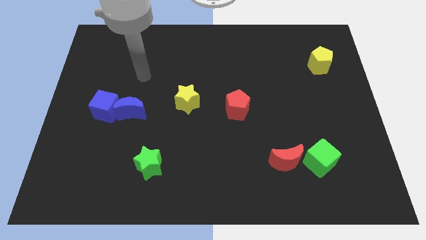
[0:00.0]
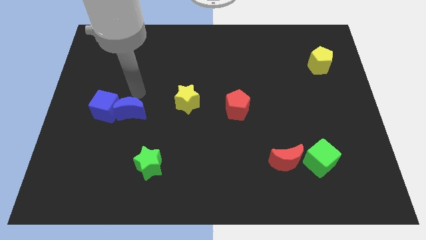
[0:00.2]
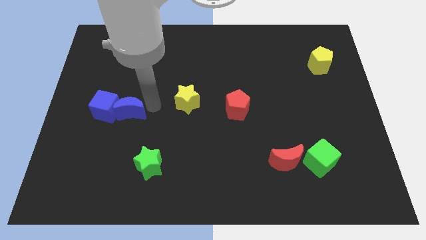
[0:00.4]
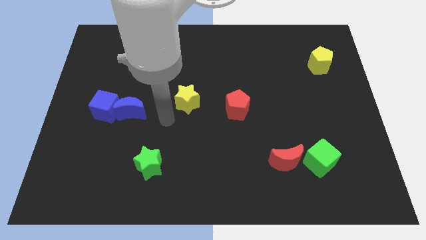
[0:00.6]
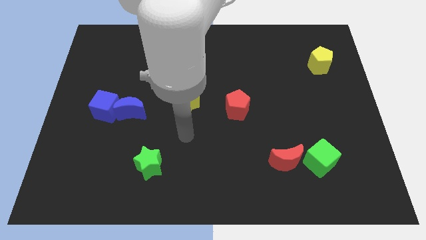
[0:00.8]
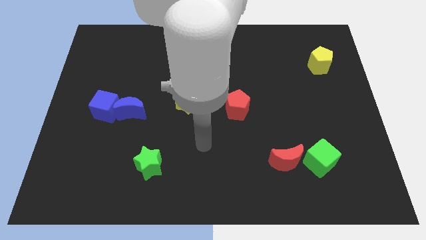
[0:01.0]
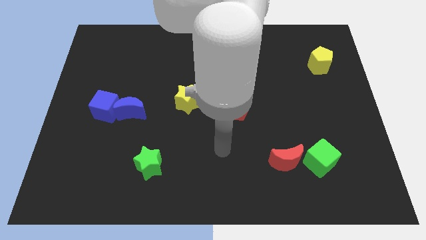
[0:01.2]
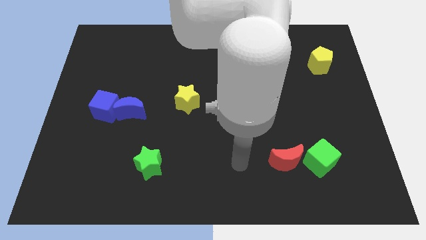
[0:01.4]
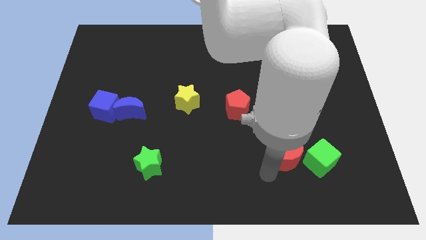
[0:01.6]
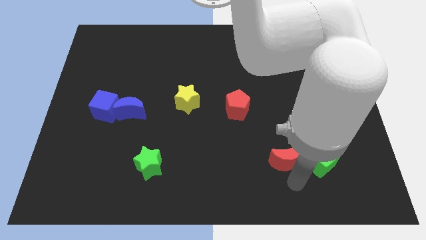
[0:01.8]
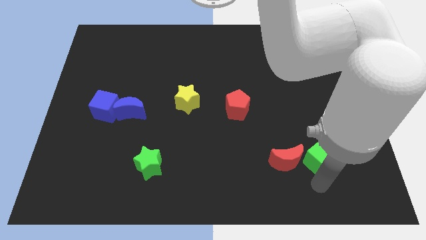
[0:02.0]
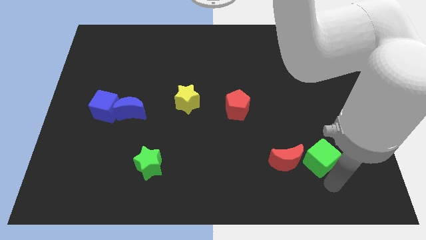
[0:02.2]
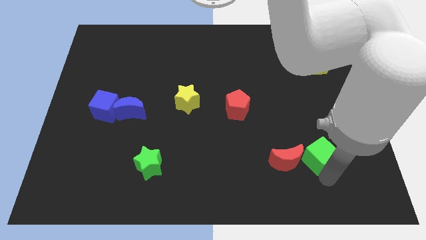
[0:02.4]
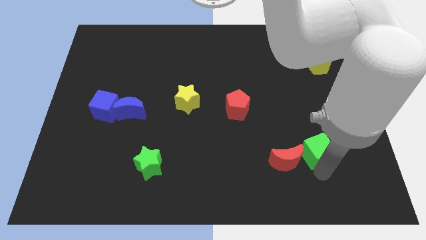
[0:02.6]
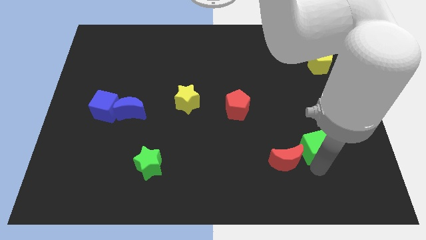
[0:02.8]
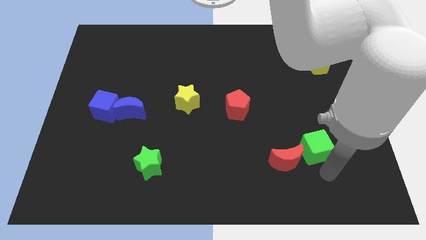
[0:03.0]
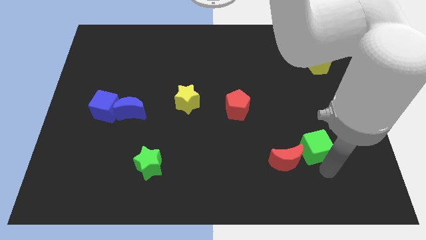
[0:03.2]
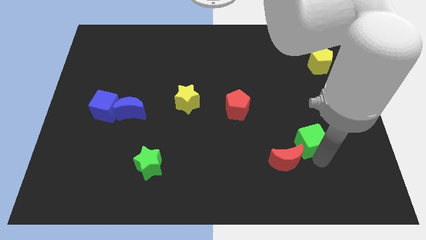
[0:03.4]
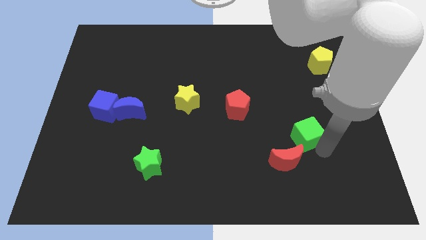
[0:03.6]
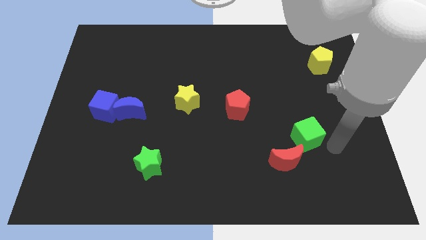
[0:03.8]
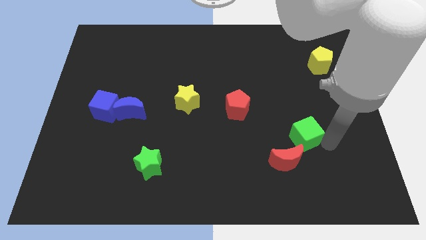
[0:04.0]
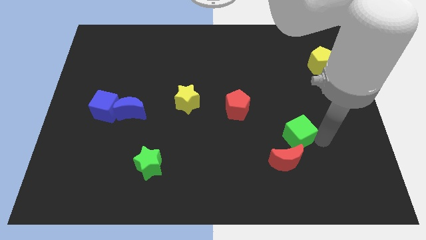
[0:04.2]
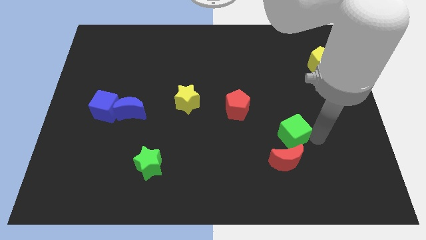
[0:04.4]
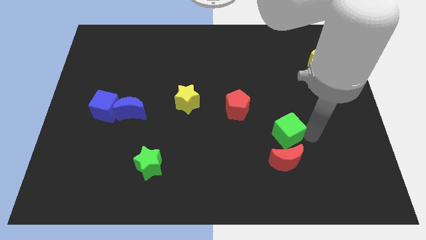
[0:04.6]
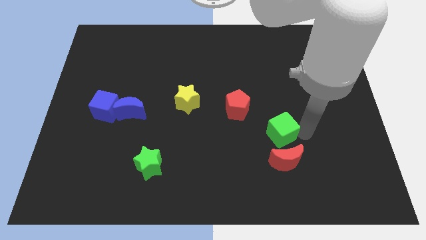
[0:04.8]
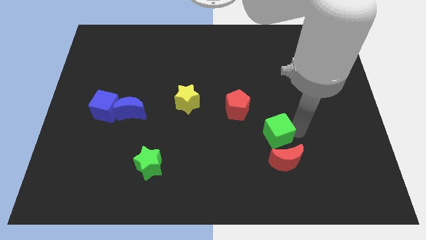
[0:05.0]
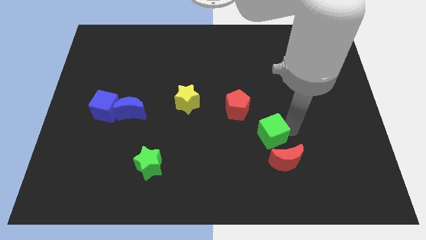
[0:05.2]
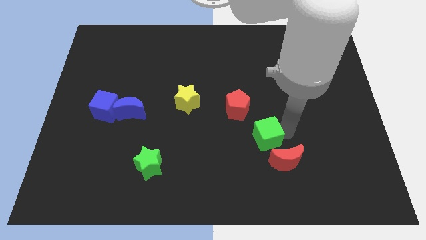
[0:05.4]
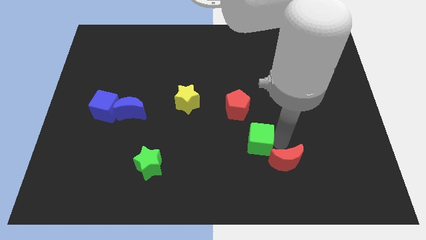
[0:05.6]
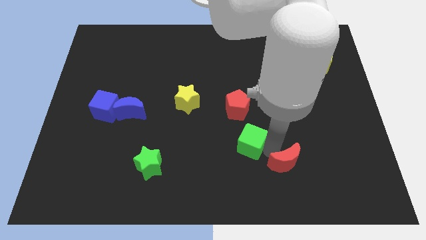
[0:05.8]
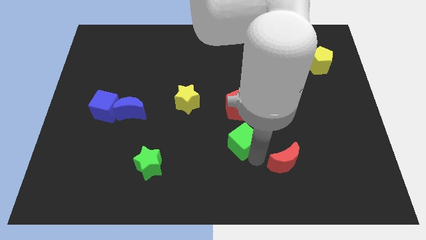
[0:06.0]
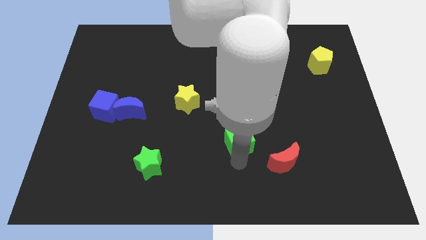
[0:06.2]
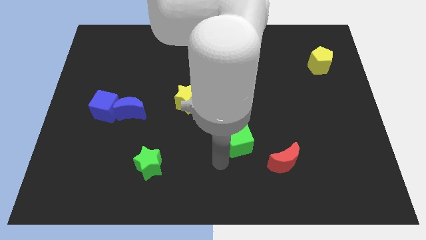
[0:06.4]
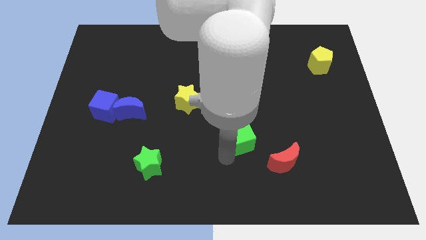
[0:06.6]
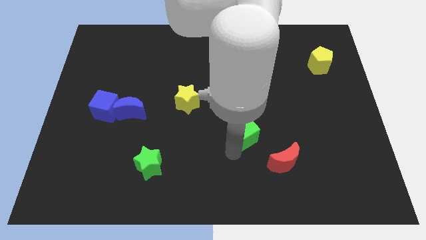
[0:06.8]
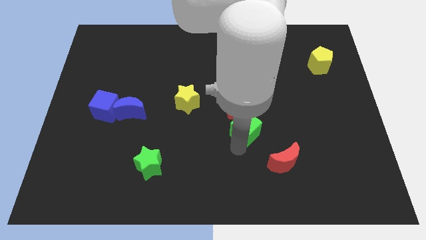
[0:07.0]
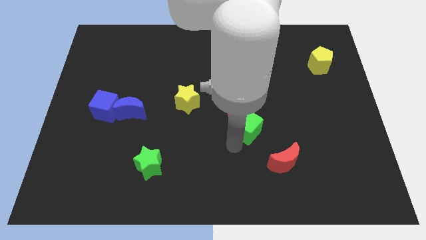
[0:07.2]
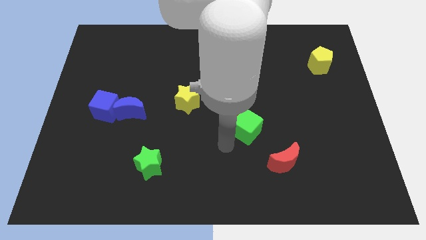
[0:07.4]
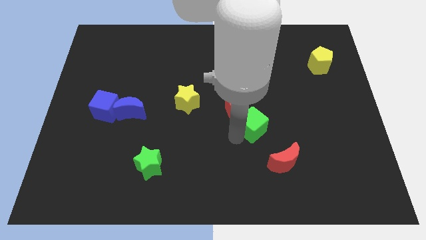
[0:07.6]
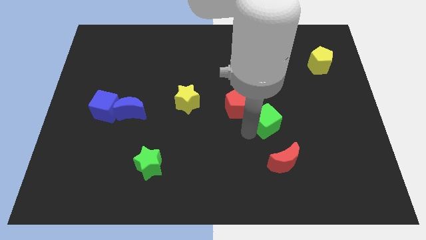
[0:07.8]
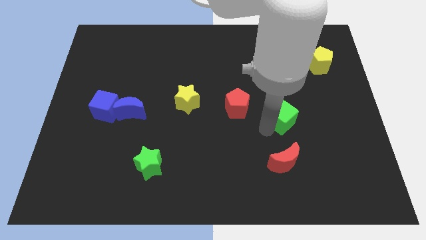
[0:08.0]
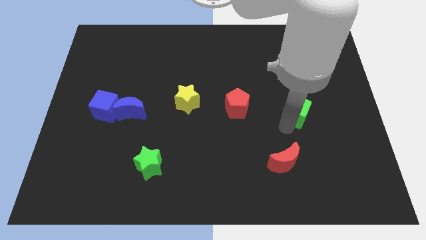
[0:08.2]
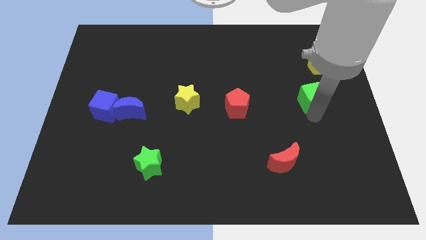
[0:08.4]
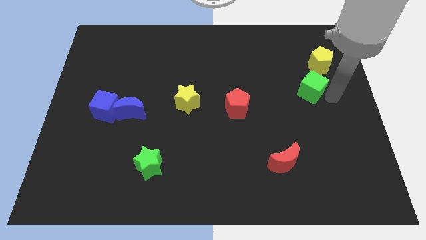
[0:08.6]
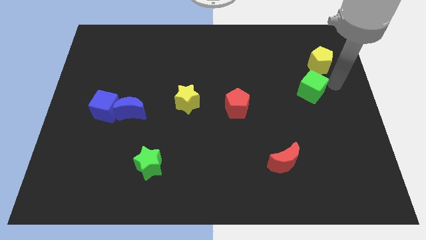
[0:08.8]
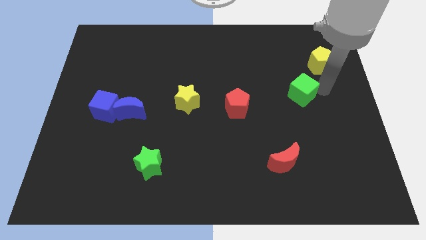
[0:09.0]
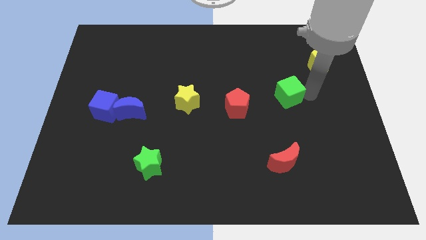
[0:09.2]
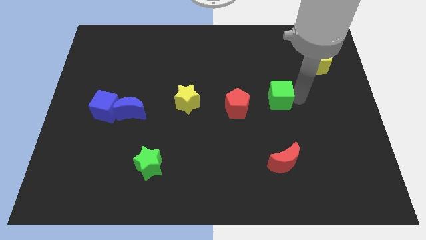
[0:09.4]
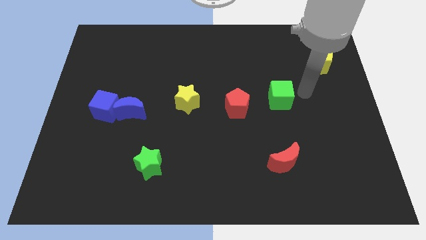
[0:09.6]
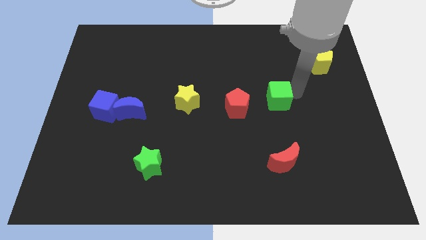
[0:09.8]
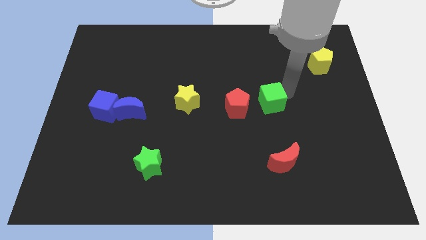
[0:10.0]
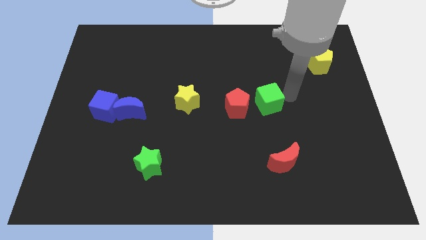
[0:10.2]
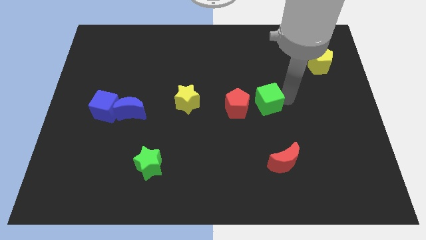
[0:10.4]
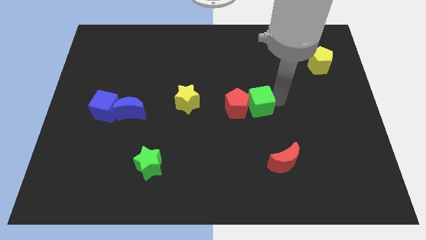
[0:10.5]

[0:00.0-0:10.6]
move the green cube next to the red pentagon

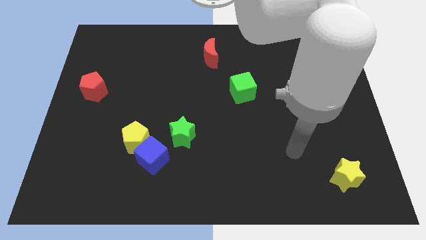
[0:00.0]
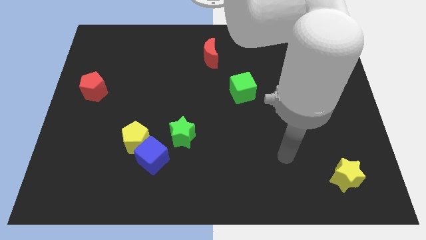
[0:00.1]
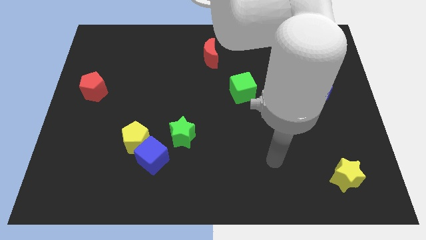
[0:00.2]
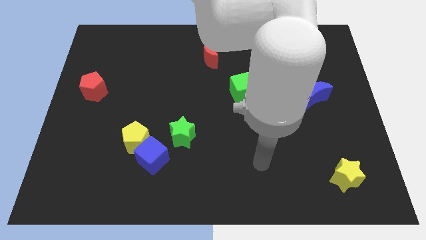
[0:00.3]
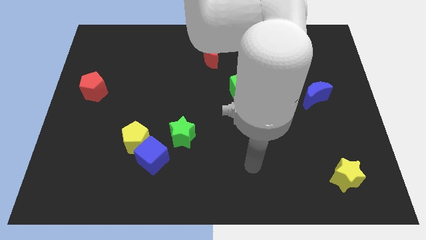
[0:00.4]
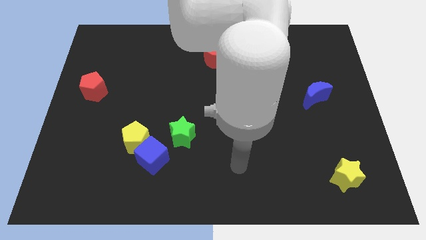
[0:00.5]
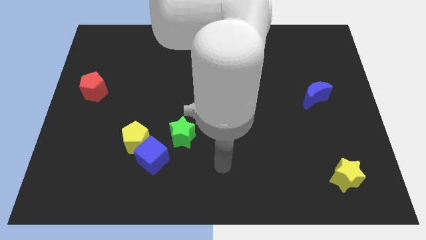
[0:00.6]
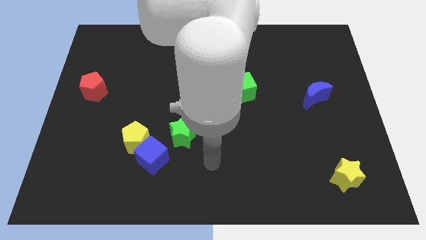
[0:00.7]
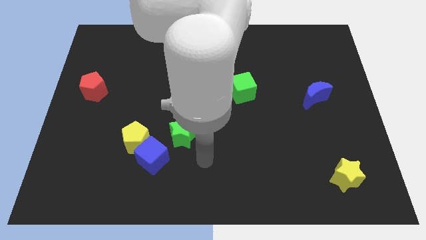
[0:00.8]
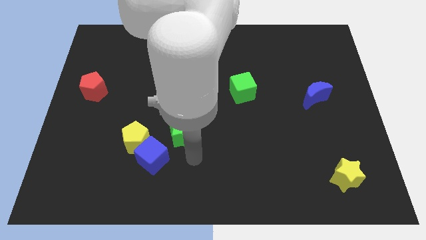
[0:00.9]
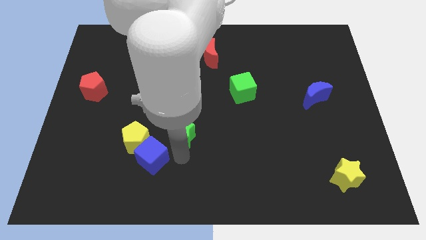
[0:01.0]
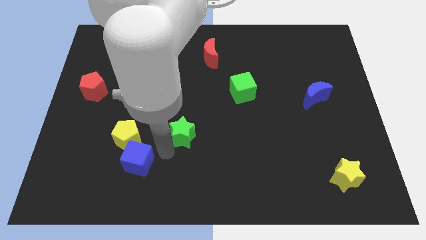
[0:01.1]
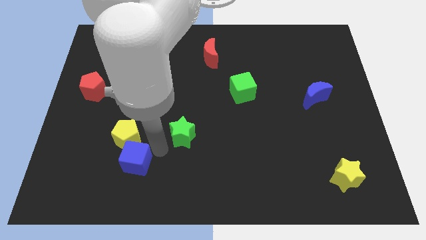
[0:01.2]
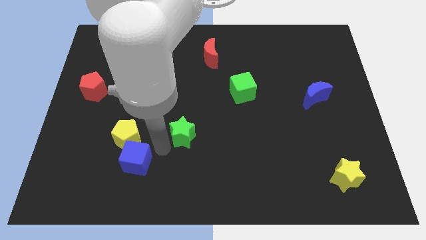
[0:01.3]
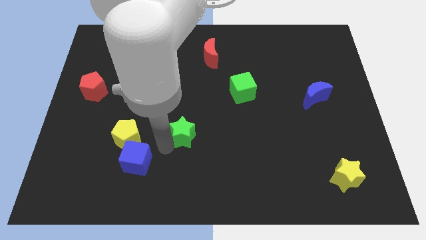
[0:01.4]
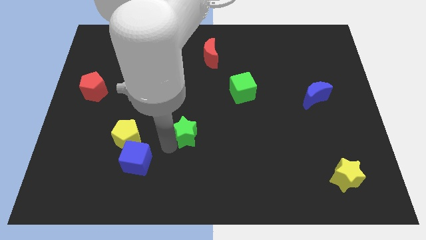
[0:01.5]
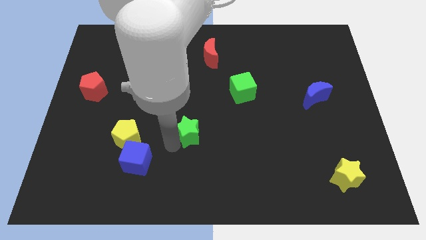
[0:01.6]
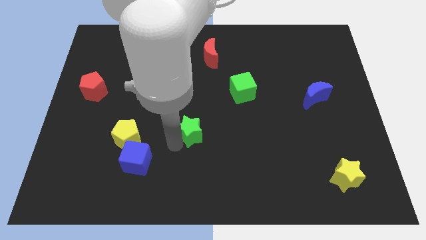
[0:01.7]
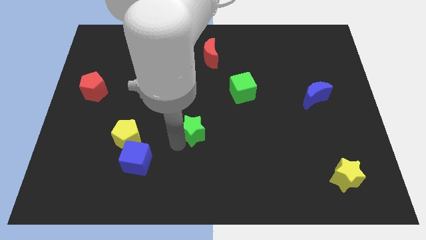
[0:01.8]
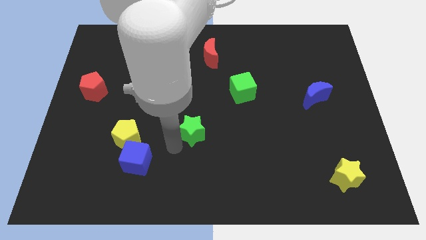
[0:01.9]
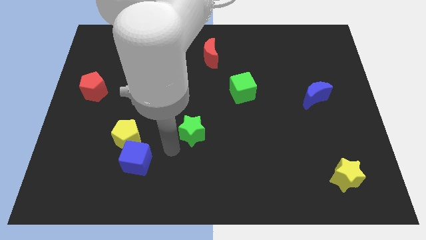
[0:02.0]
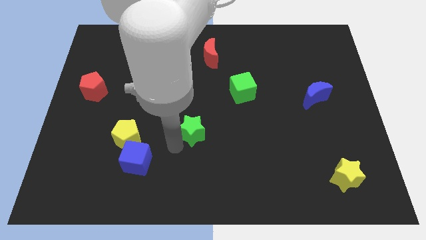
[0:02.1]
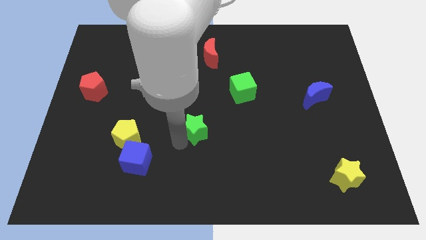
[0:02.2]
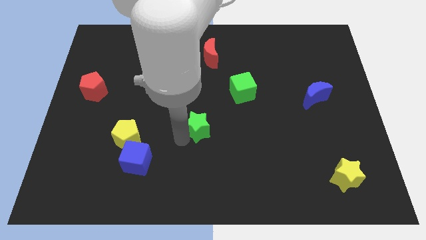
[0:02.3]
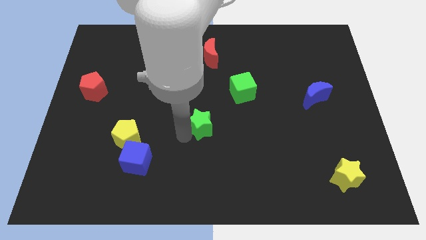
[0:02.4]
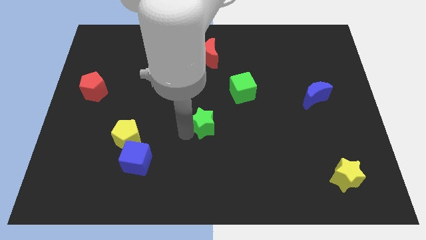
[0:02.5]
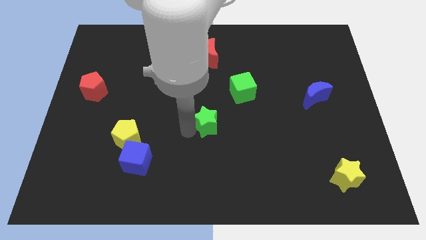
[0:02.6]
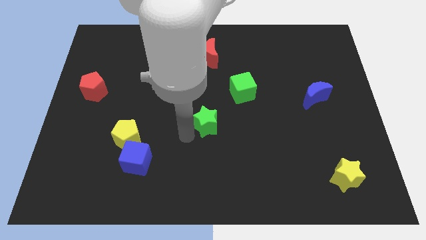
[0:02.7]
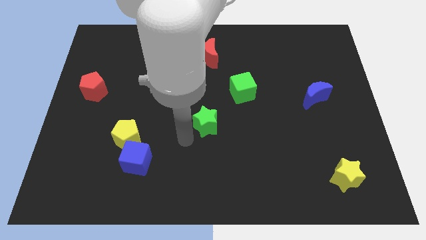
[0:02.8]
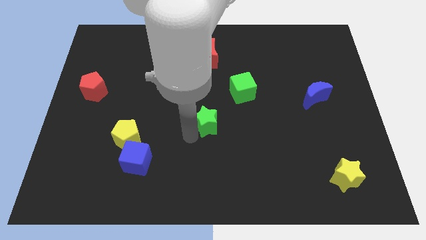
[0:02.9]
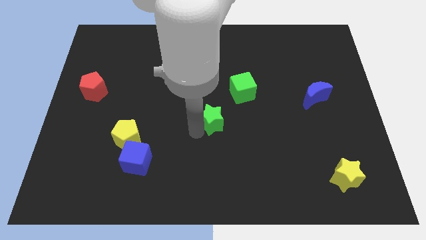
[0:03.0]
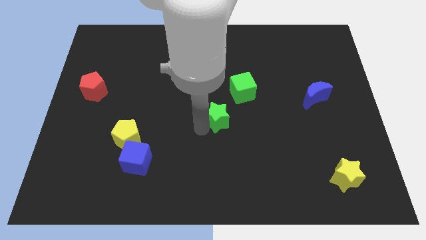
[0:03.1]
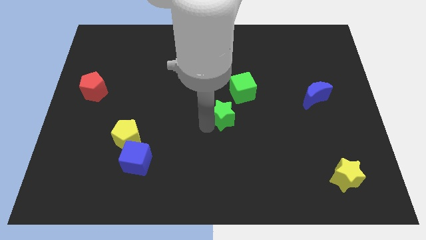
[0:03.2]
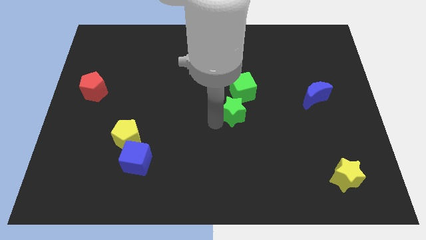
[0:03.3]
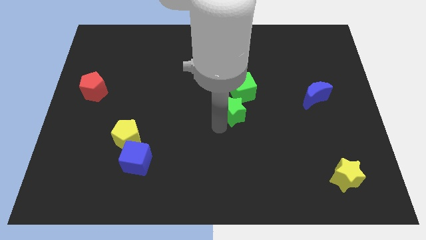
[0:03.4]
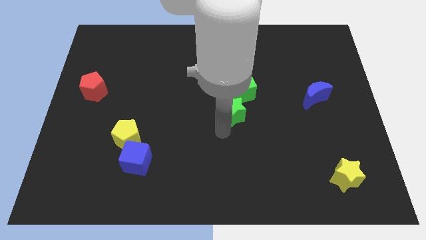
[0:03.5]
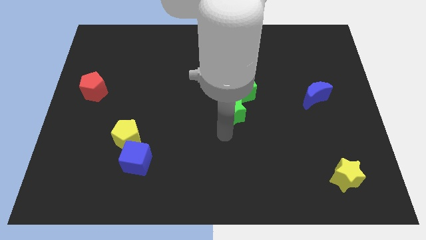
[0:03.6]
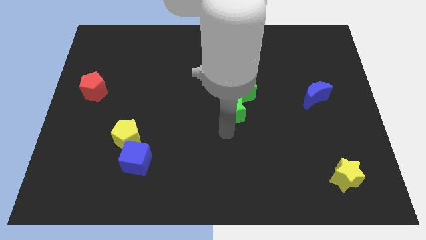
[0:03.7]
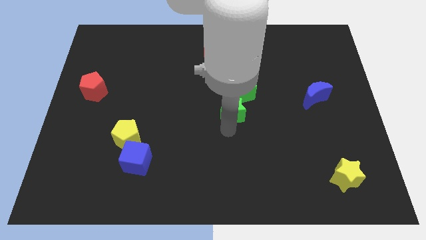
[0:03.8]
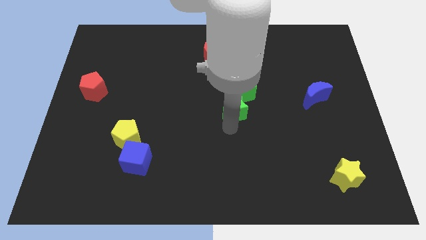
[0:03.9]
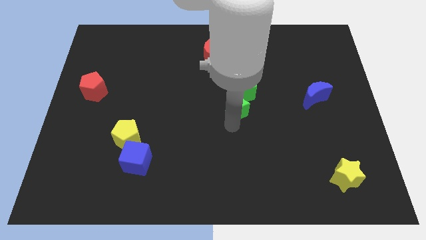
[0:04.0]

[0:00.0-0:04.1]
put the green star next to the green cube
